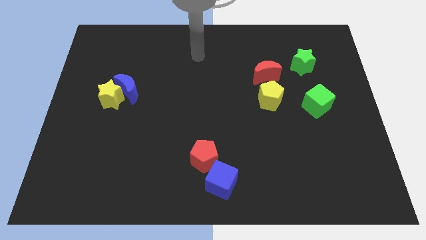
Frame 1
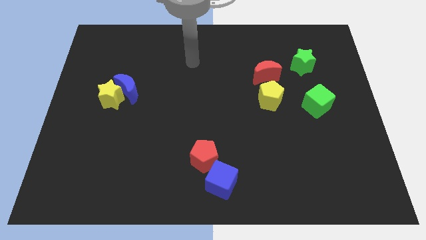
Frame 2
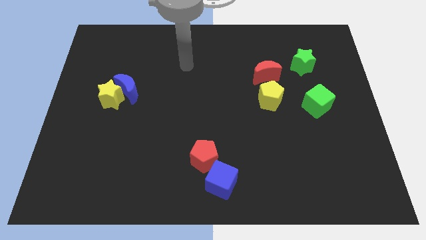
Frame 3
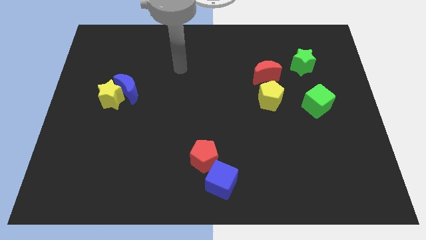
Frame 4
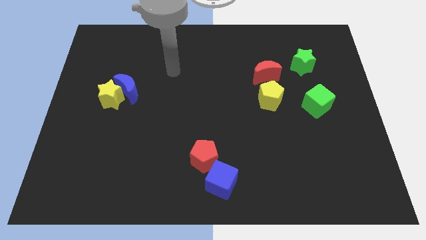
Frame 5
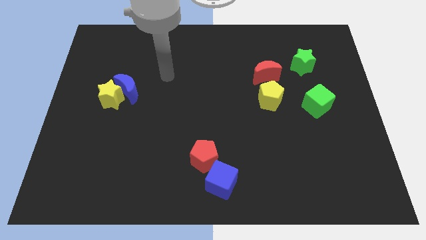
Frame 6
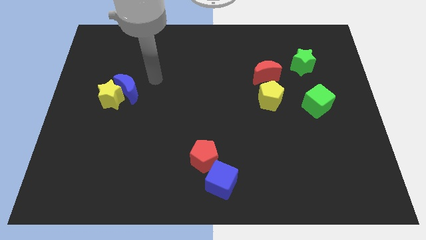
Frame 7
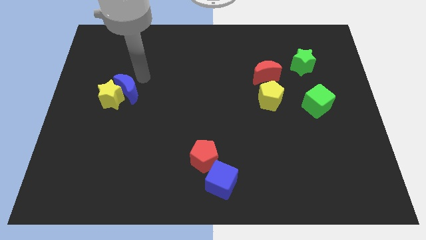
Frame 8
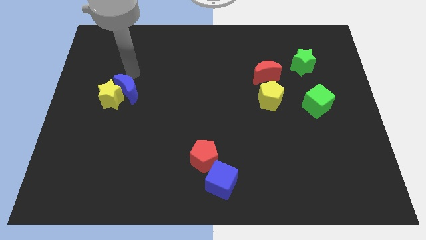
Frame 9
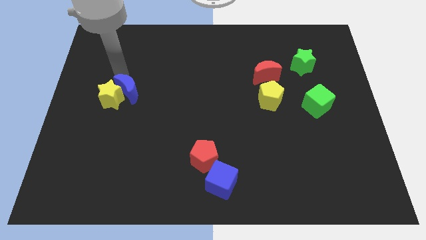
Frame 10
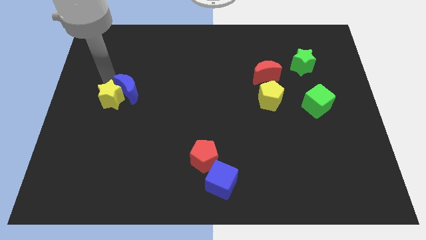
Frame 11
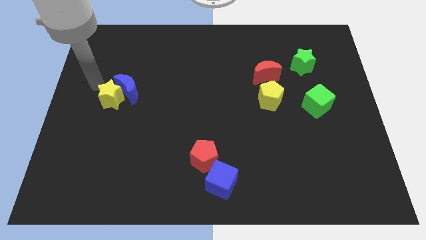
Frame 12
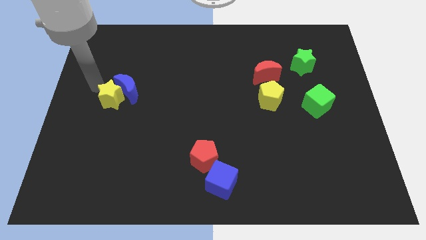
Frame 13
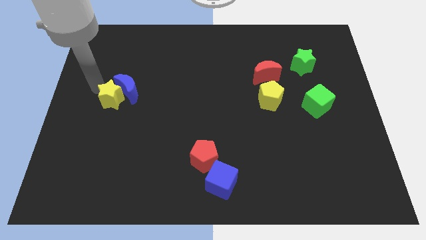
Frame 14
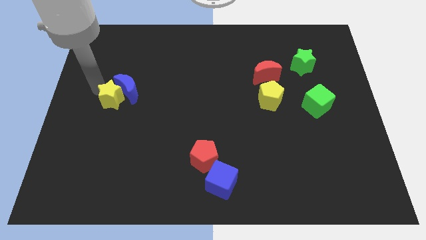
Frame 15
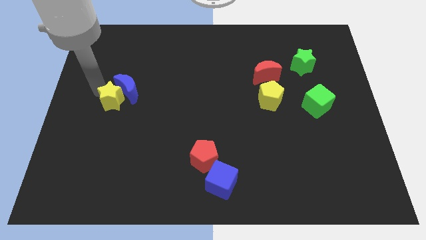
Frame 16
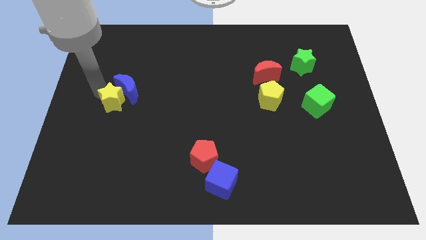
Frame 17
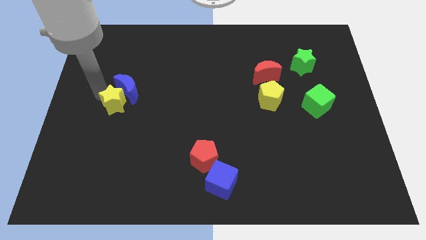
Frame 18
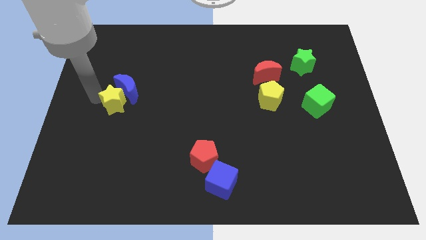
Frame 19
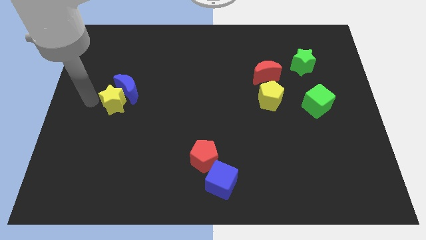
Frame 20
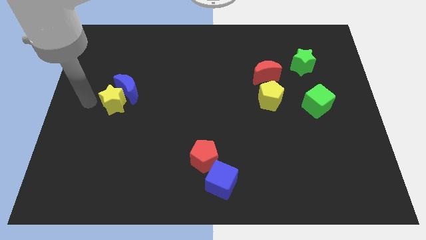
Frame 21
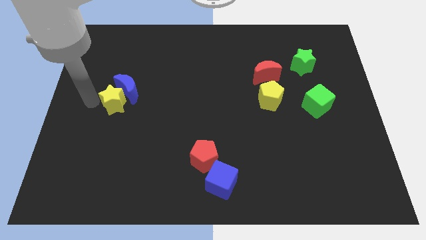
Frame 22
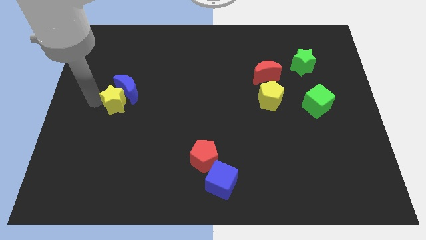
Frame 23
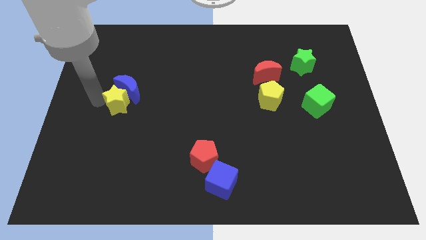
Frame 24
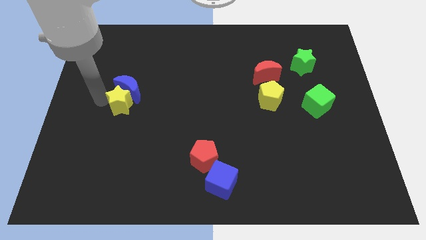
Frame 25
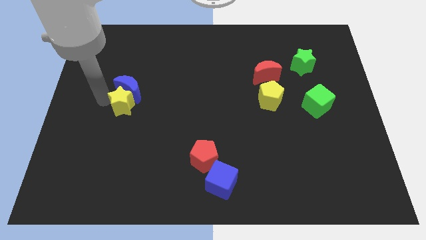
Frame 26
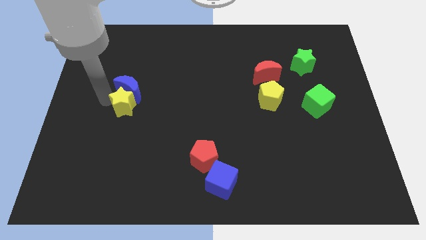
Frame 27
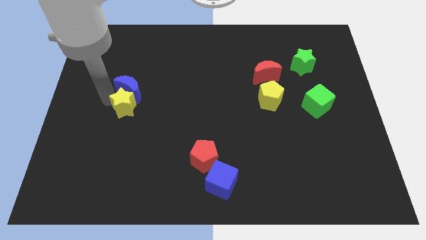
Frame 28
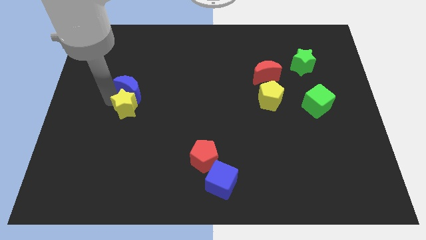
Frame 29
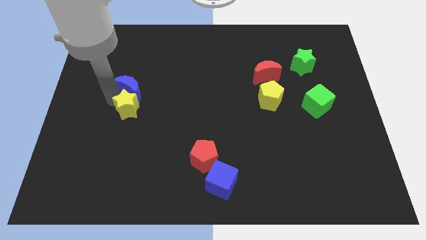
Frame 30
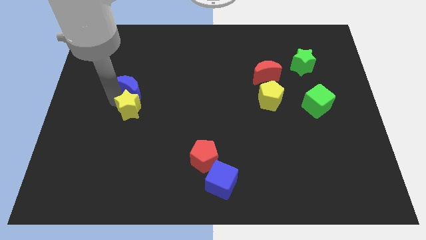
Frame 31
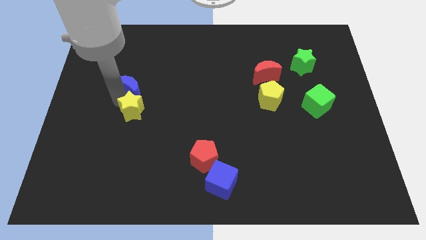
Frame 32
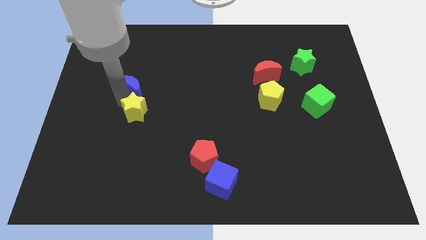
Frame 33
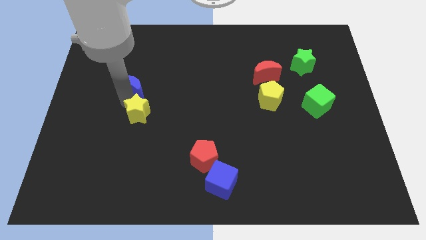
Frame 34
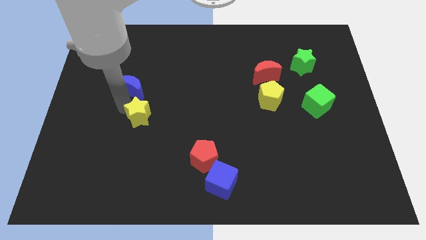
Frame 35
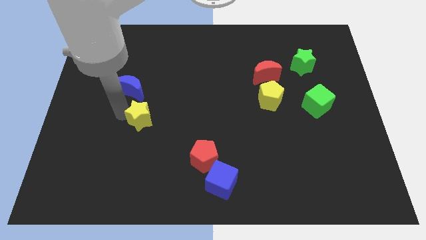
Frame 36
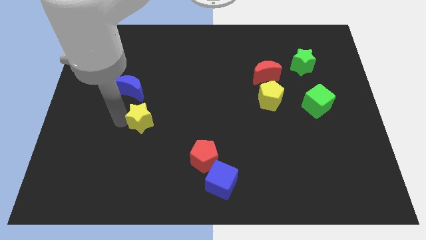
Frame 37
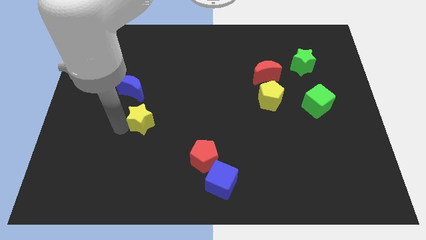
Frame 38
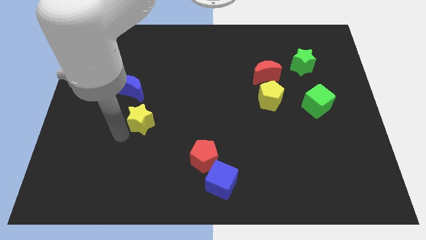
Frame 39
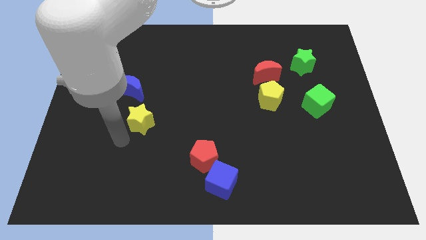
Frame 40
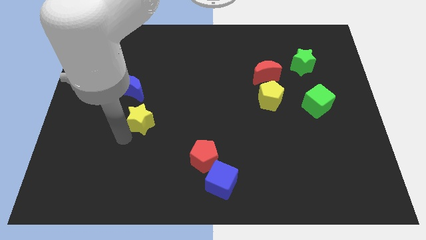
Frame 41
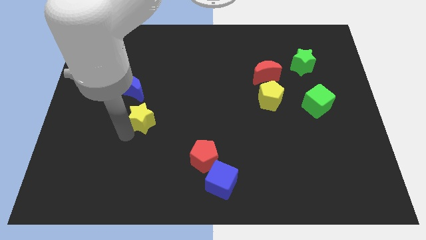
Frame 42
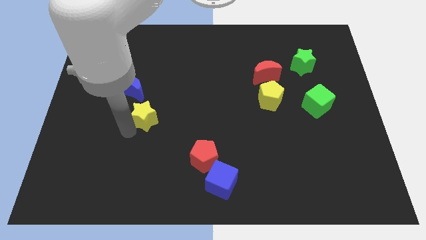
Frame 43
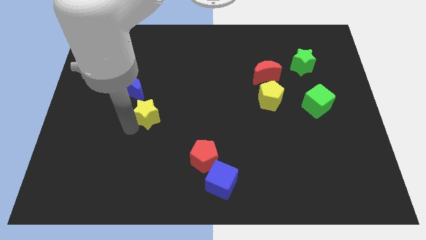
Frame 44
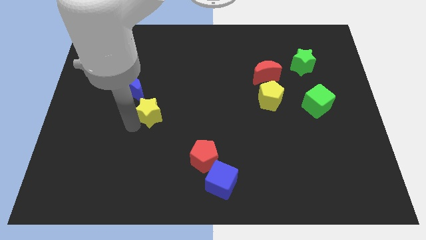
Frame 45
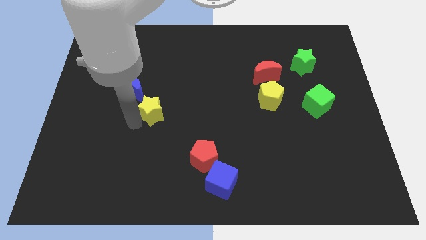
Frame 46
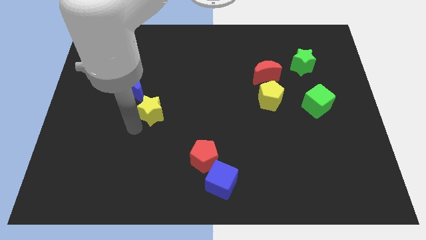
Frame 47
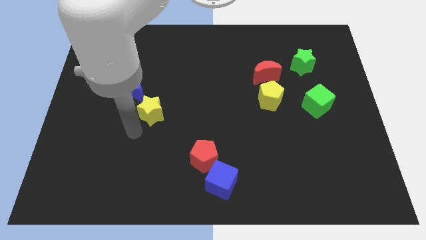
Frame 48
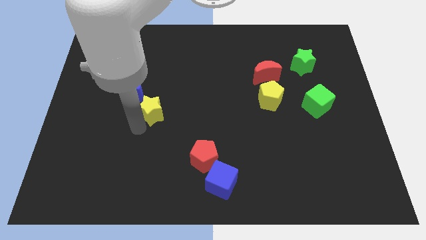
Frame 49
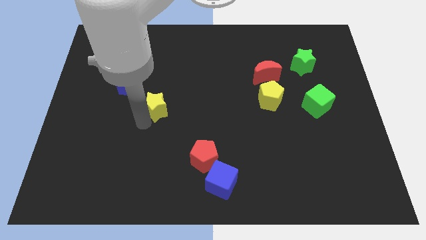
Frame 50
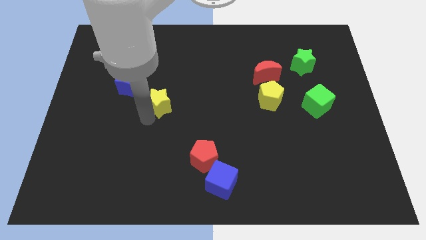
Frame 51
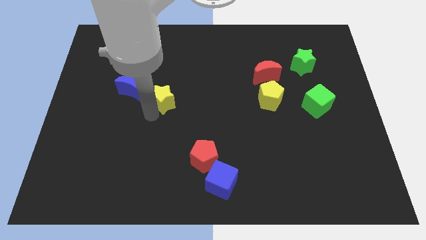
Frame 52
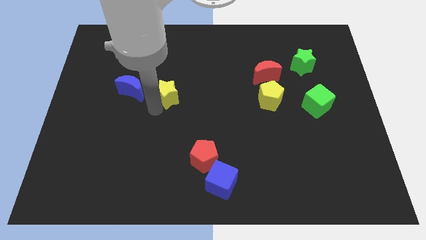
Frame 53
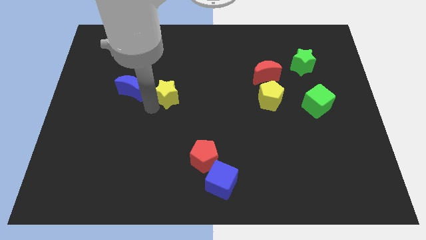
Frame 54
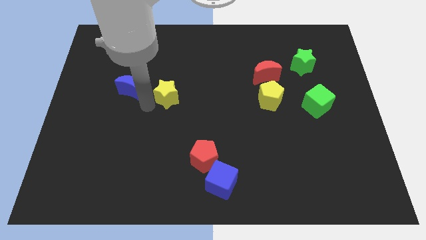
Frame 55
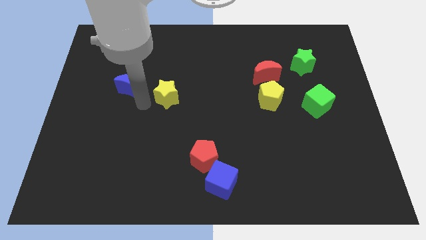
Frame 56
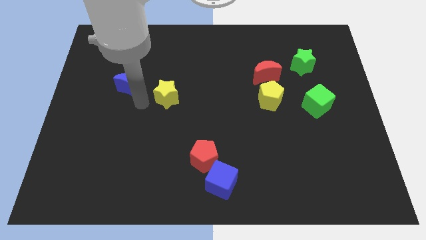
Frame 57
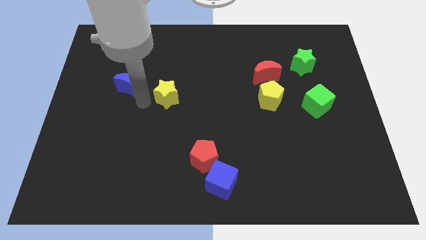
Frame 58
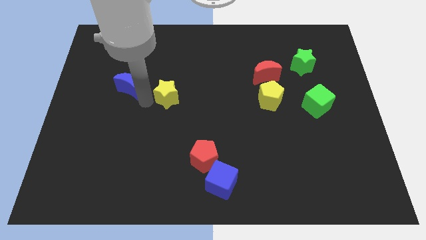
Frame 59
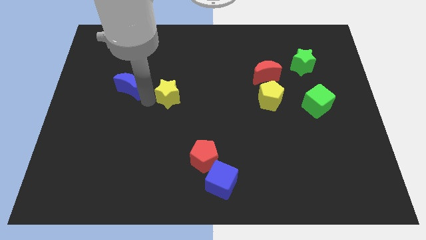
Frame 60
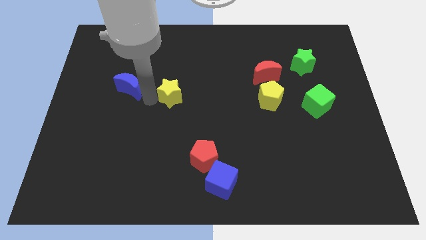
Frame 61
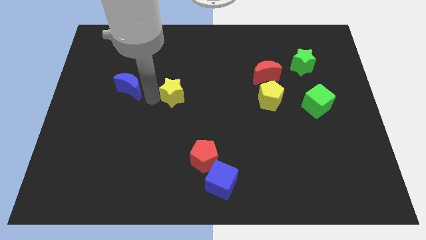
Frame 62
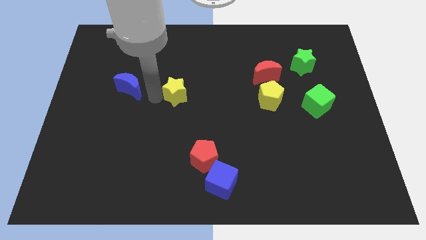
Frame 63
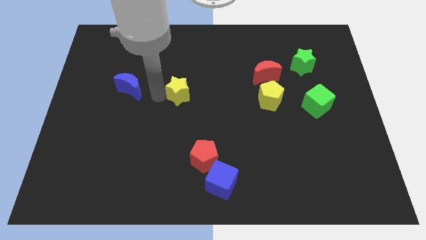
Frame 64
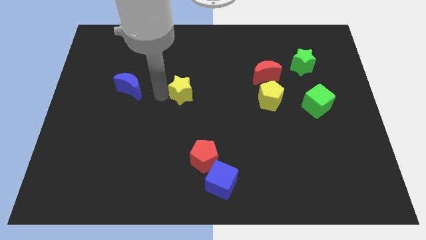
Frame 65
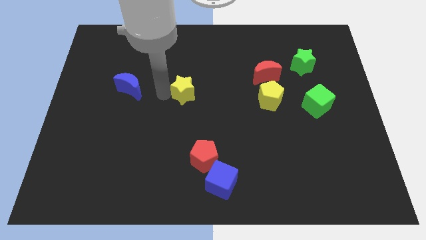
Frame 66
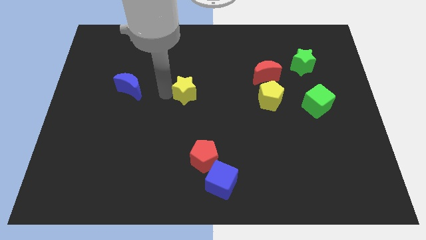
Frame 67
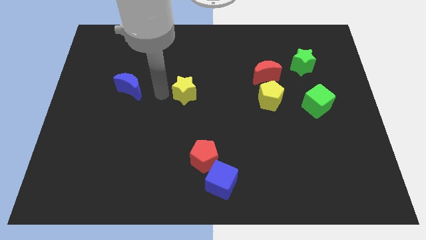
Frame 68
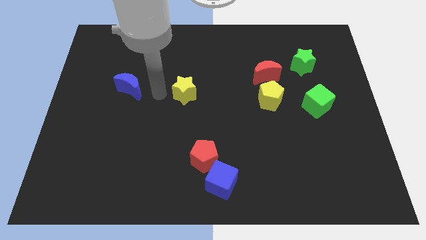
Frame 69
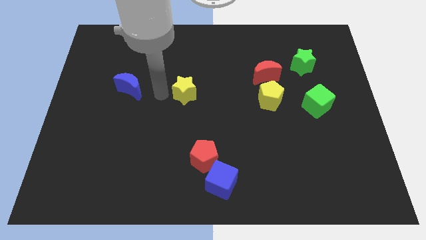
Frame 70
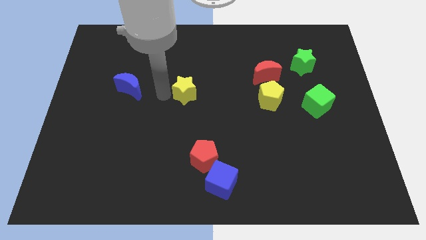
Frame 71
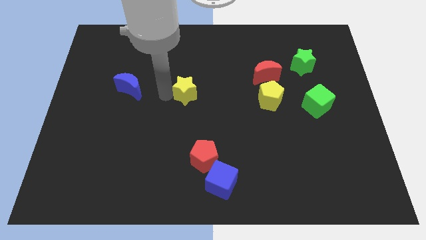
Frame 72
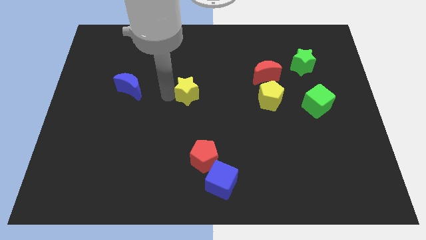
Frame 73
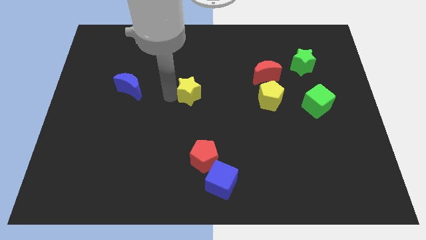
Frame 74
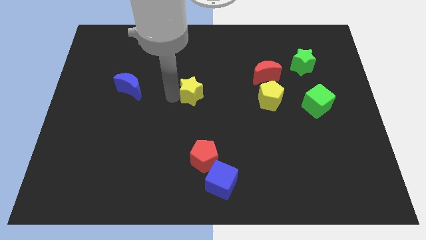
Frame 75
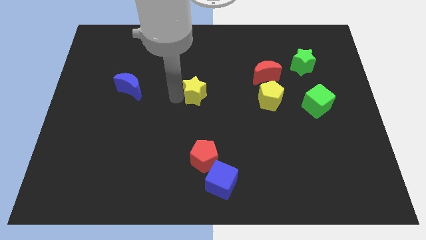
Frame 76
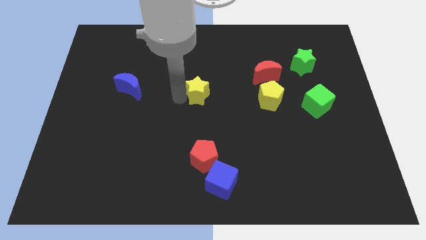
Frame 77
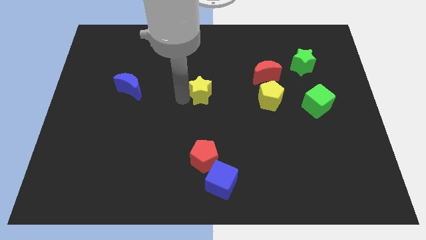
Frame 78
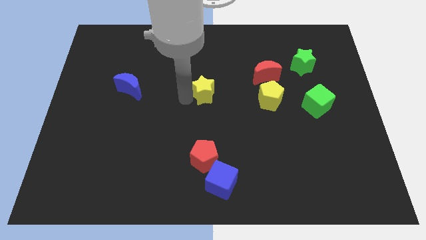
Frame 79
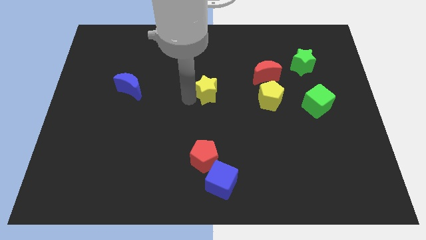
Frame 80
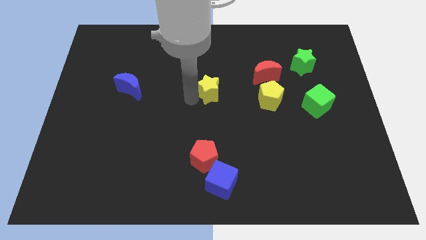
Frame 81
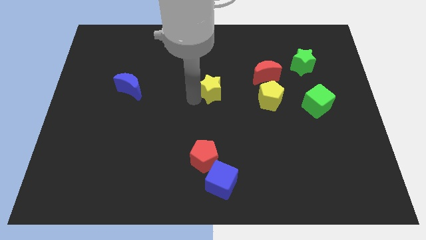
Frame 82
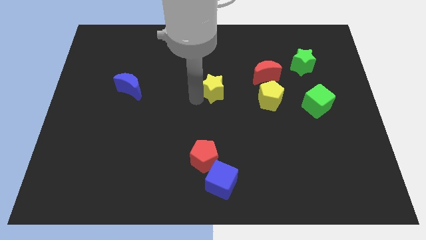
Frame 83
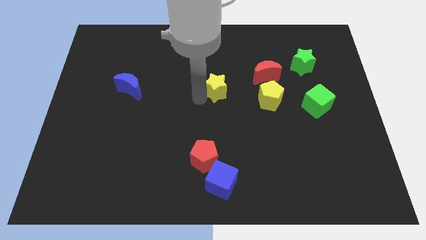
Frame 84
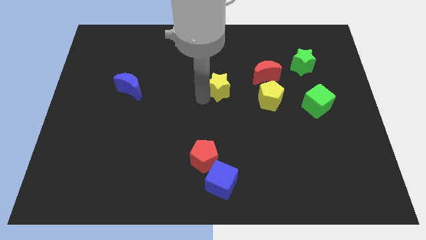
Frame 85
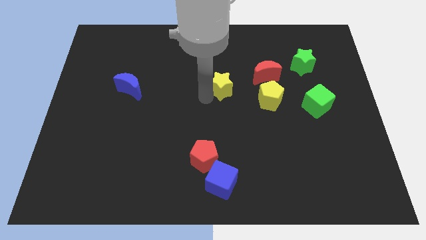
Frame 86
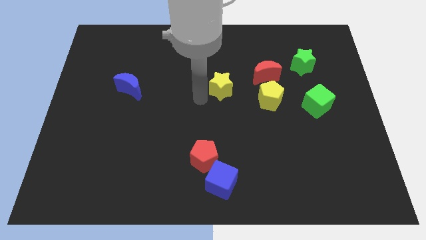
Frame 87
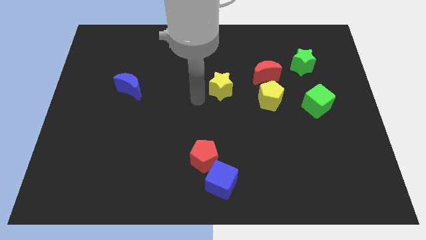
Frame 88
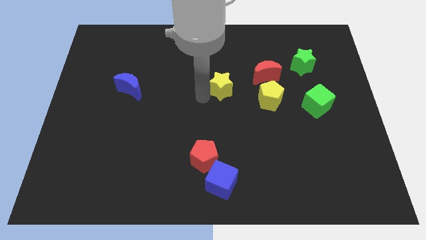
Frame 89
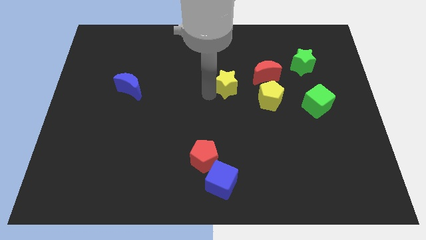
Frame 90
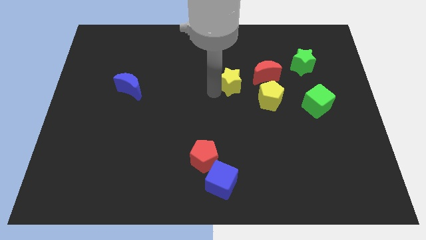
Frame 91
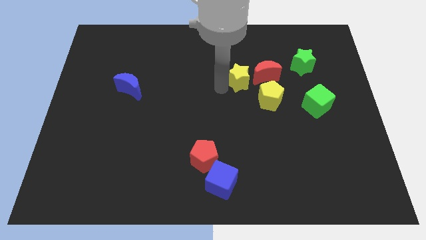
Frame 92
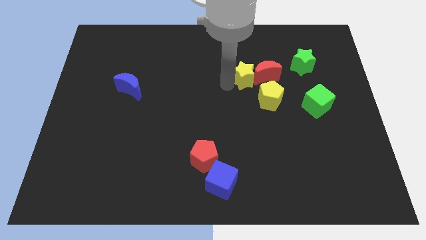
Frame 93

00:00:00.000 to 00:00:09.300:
slide the yellow star next to the red moon
